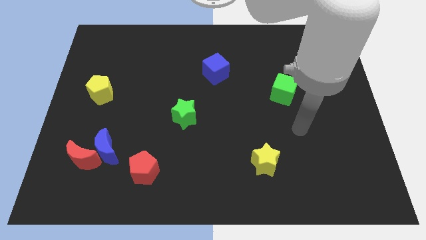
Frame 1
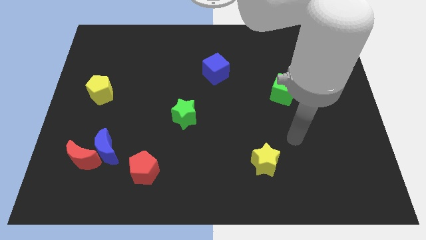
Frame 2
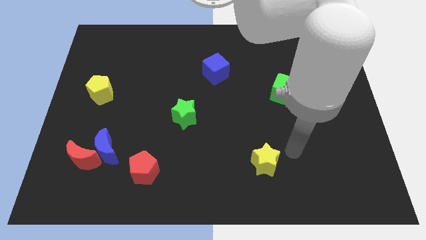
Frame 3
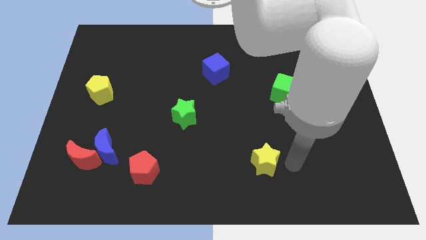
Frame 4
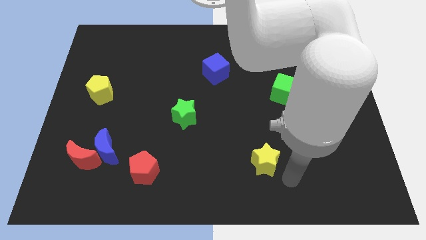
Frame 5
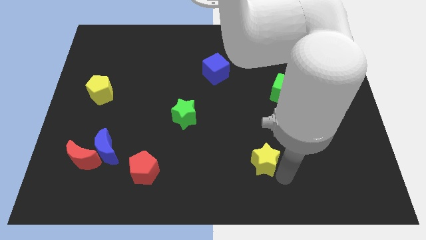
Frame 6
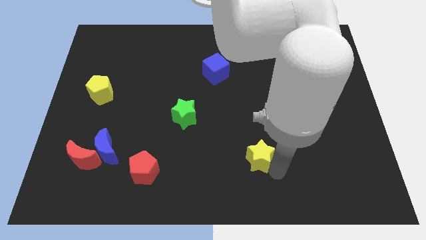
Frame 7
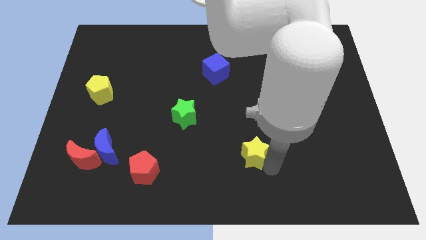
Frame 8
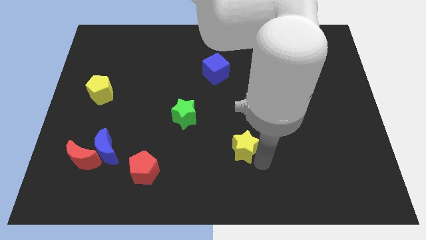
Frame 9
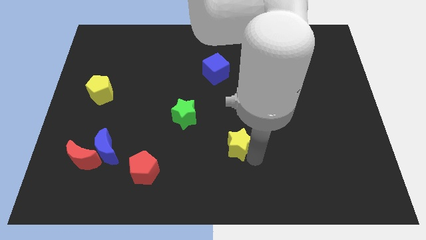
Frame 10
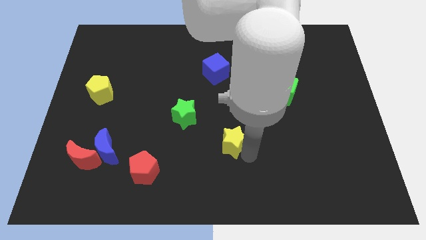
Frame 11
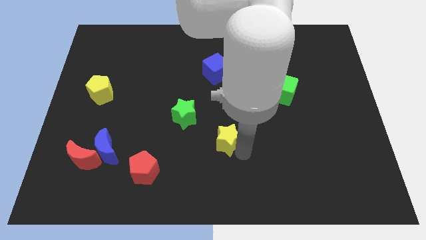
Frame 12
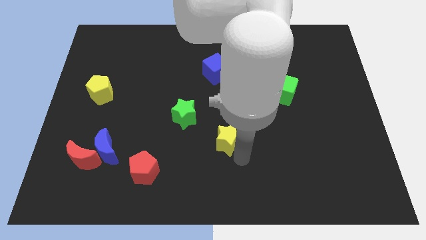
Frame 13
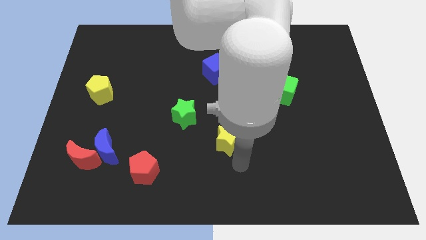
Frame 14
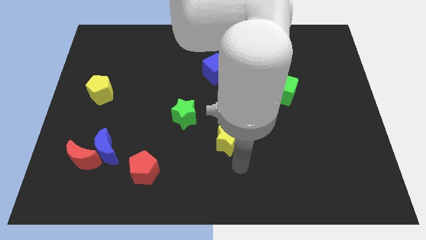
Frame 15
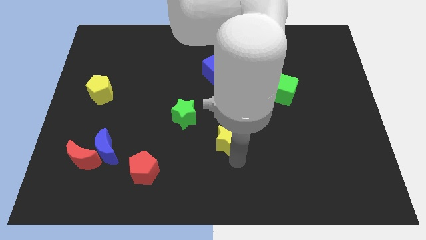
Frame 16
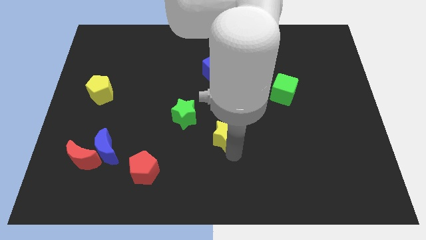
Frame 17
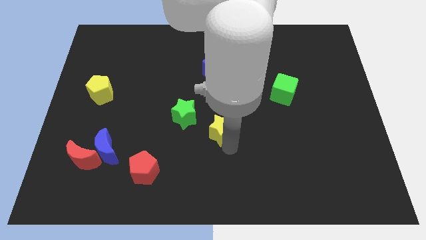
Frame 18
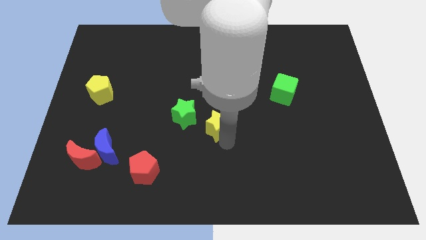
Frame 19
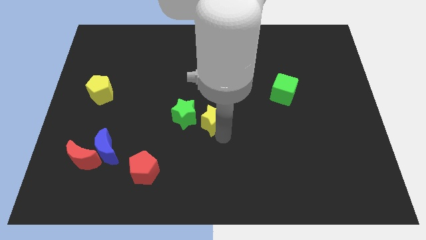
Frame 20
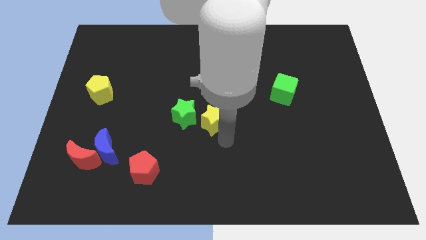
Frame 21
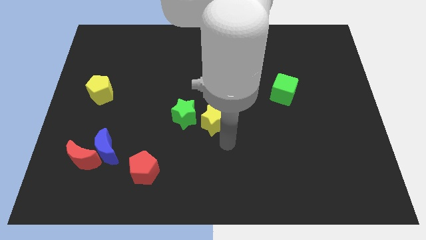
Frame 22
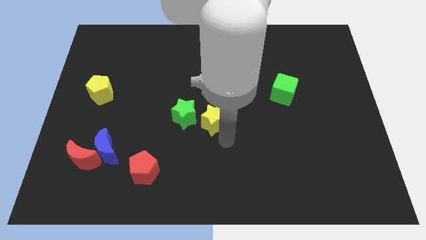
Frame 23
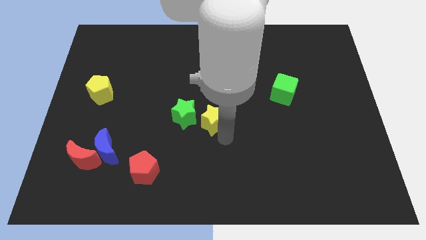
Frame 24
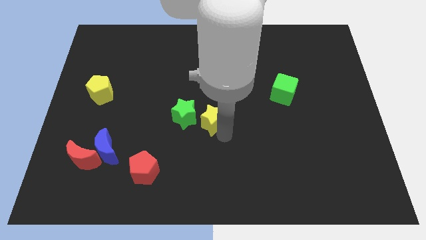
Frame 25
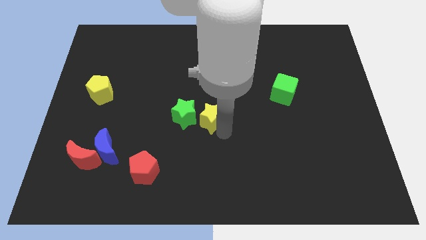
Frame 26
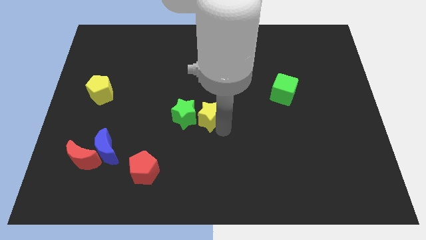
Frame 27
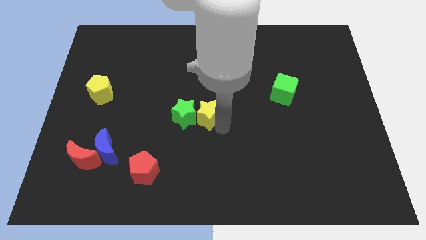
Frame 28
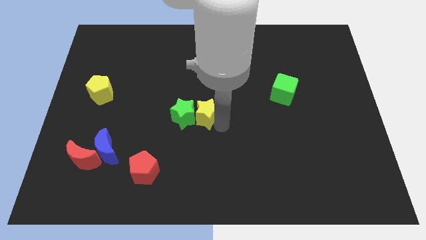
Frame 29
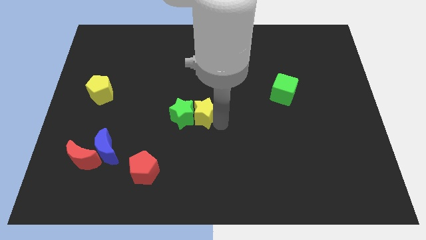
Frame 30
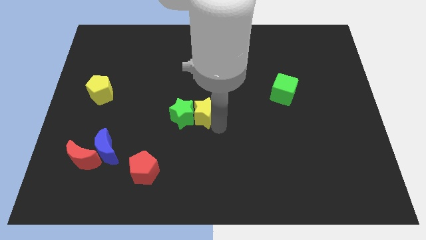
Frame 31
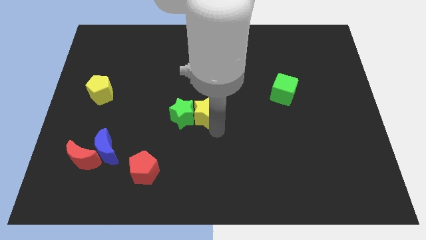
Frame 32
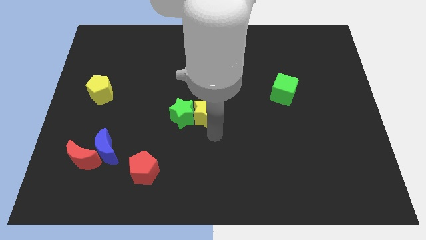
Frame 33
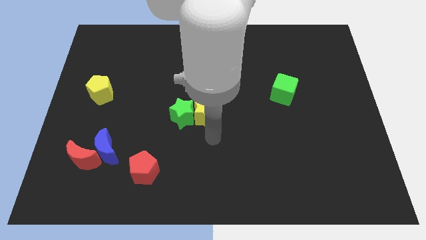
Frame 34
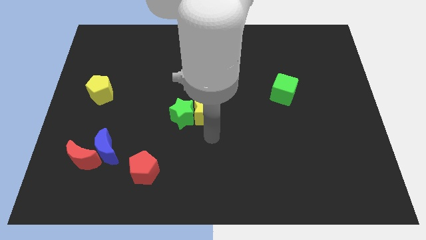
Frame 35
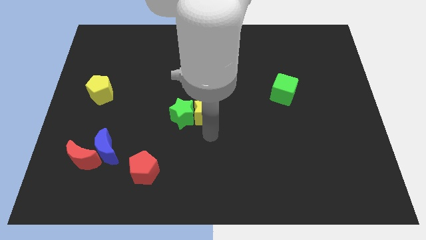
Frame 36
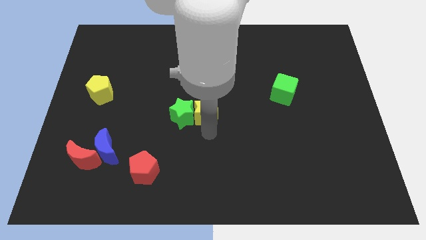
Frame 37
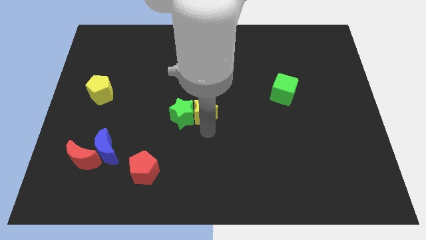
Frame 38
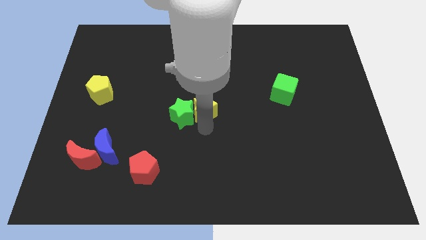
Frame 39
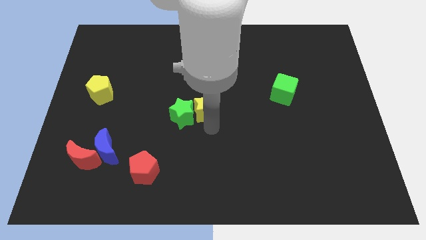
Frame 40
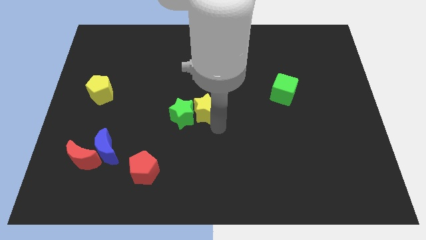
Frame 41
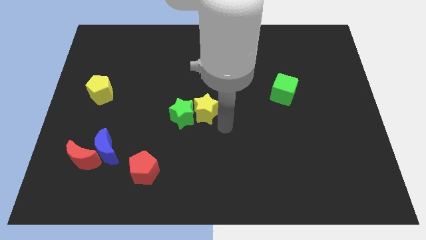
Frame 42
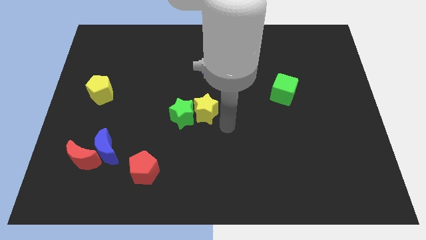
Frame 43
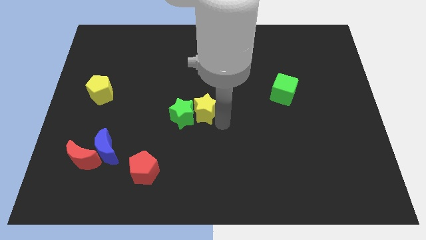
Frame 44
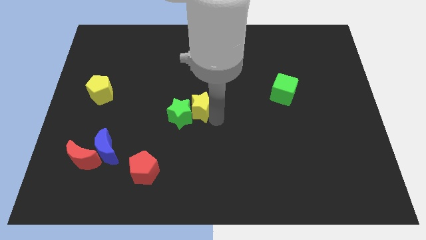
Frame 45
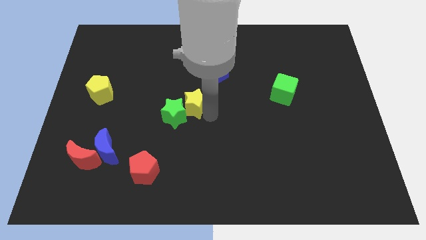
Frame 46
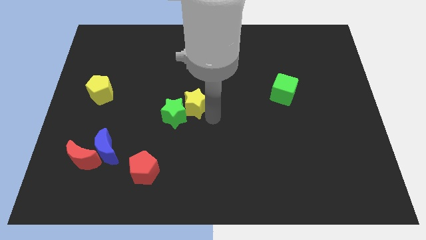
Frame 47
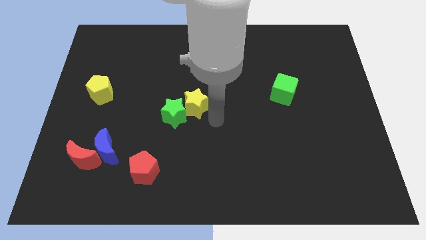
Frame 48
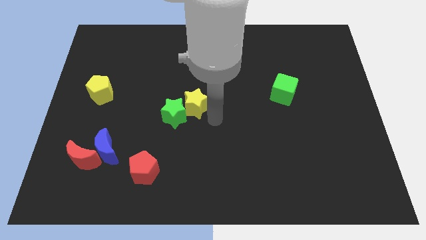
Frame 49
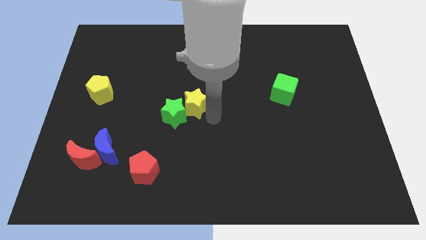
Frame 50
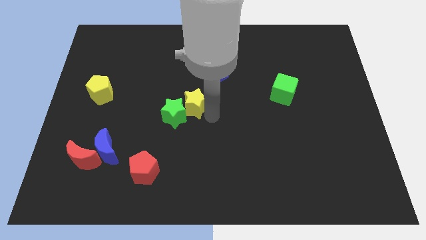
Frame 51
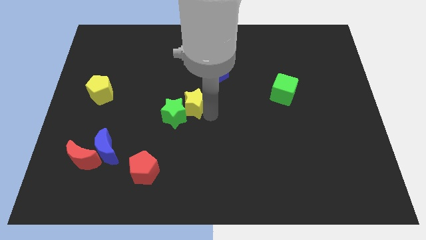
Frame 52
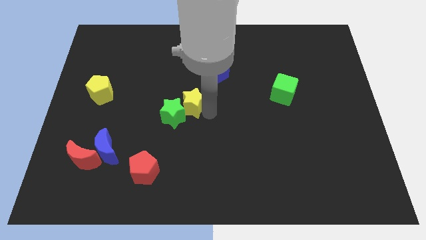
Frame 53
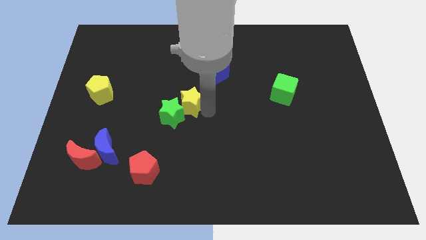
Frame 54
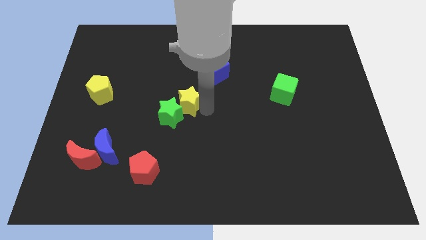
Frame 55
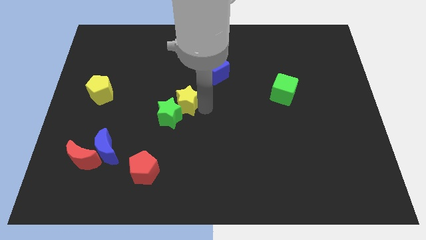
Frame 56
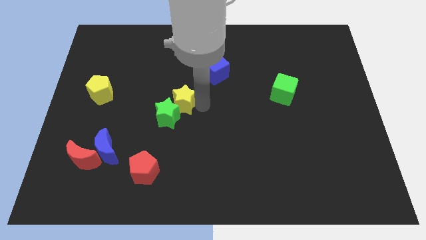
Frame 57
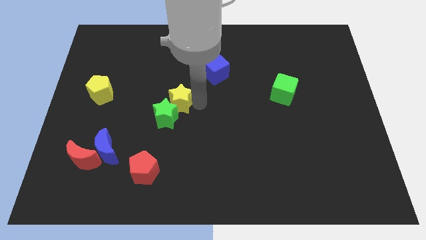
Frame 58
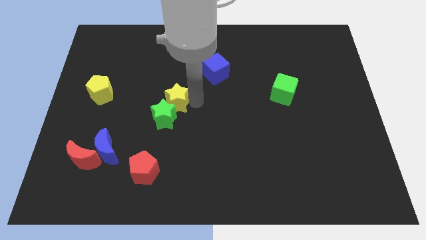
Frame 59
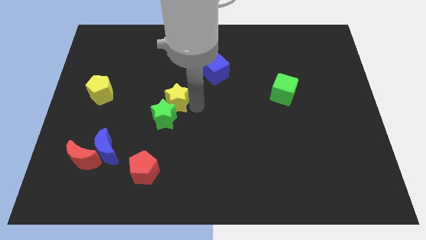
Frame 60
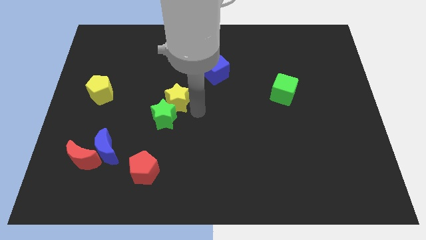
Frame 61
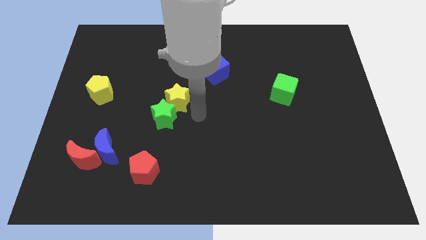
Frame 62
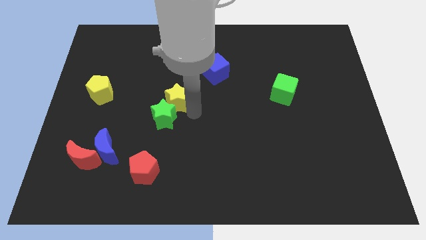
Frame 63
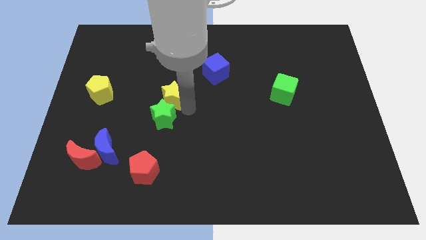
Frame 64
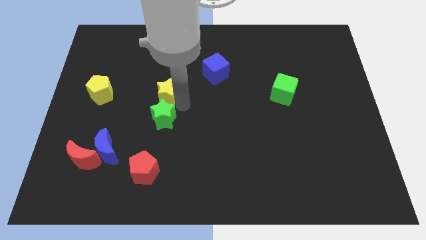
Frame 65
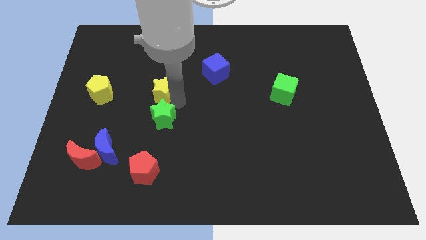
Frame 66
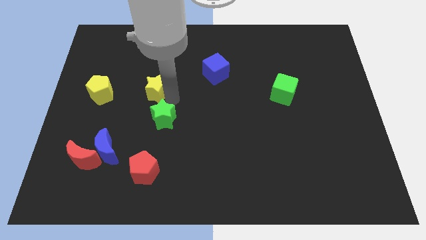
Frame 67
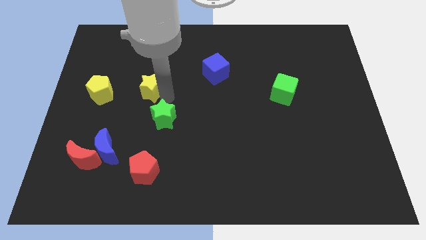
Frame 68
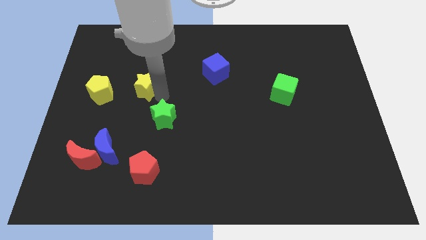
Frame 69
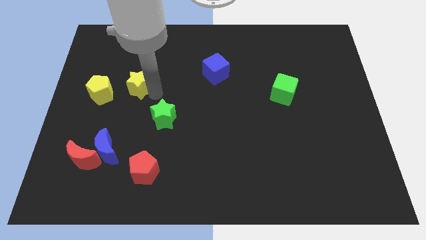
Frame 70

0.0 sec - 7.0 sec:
put the yellow star to the top right of the yellow pentagon

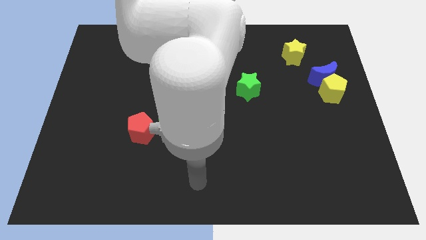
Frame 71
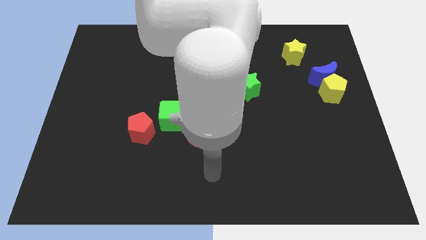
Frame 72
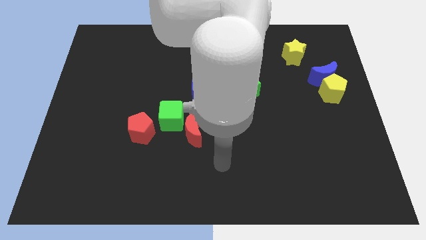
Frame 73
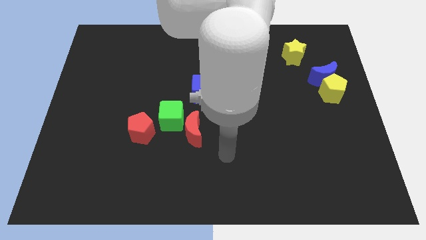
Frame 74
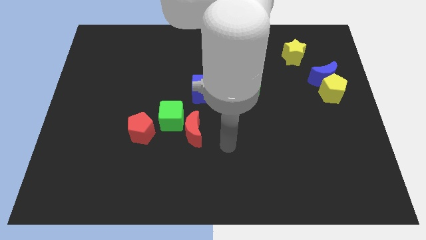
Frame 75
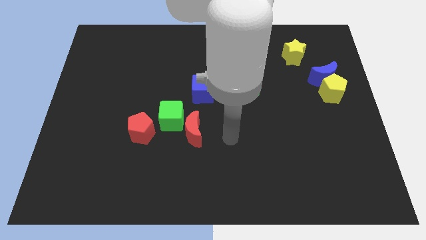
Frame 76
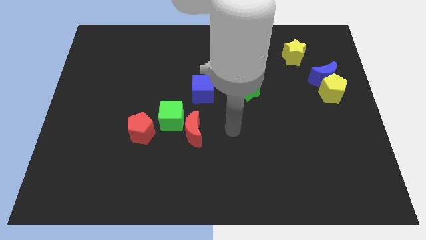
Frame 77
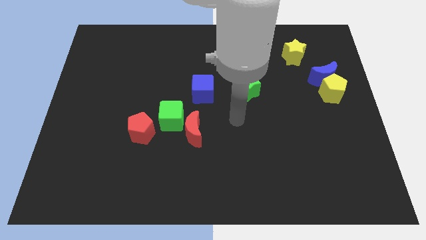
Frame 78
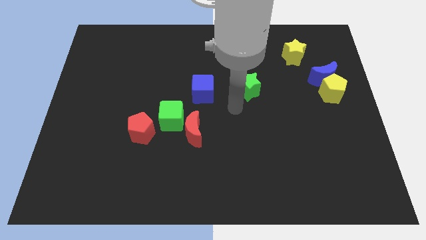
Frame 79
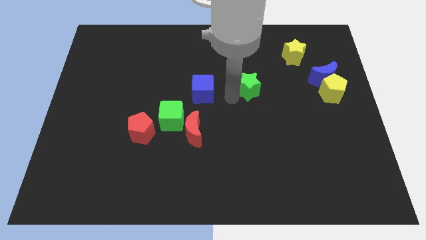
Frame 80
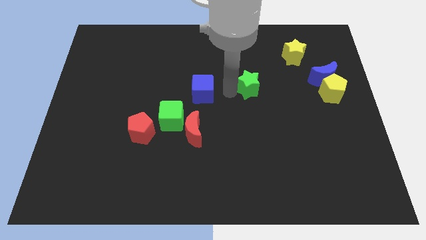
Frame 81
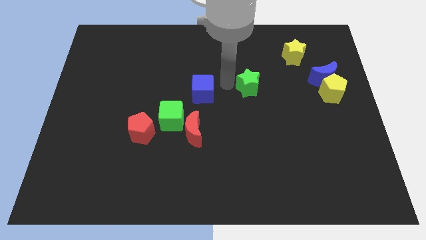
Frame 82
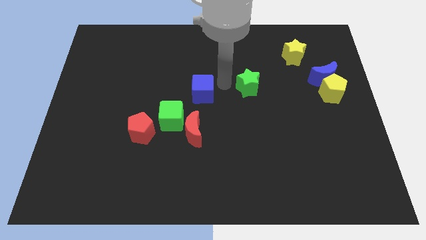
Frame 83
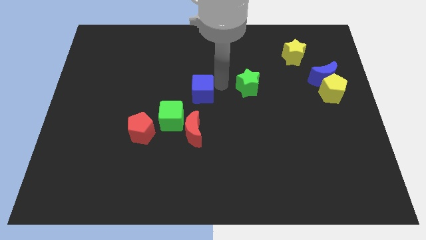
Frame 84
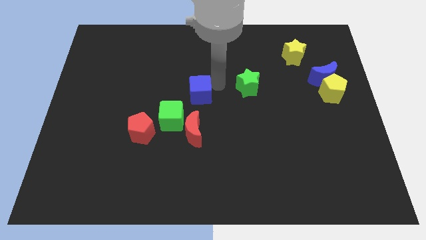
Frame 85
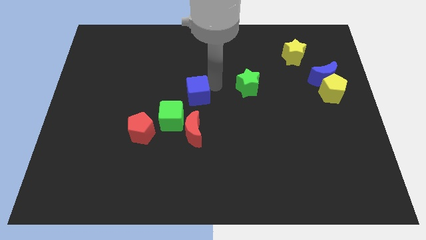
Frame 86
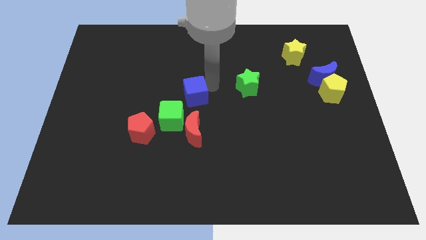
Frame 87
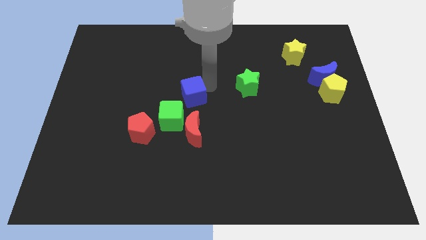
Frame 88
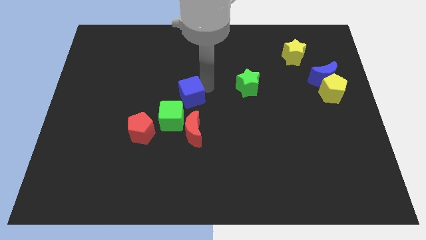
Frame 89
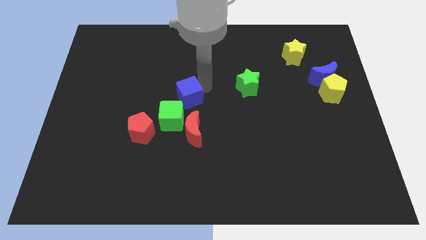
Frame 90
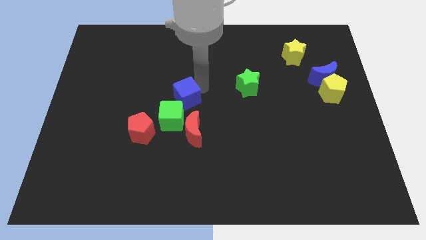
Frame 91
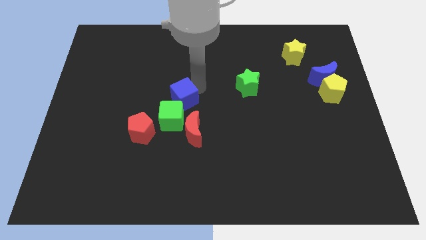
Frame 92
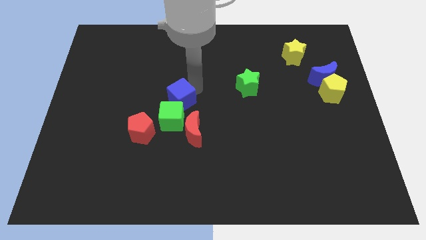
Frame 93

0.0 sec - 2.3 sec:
move the blue cube to the top left of the red moon
